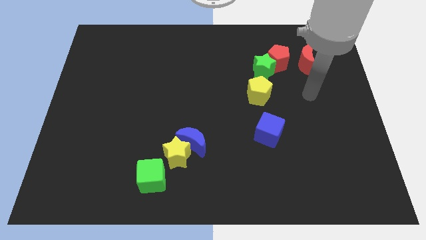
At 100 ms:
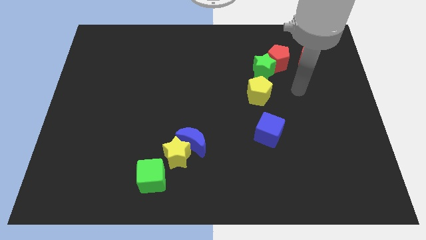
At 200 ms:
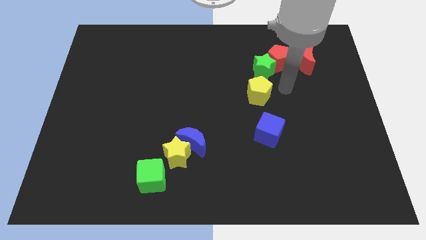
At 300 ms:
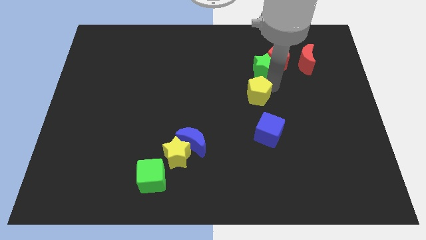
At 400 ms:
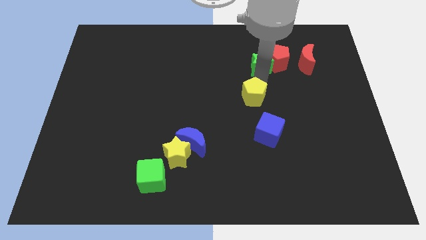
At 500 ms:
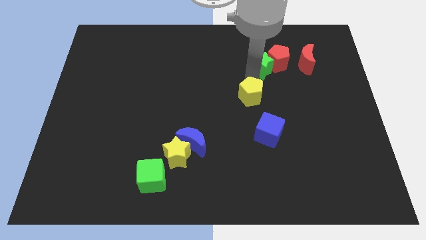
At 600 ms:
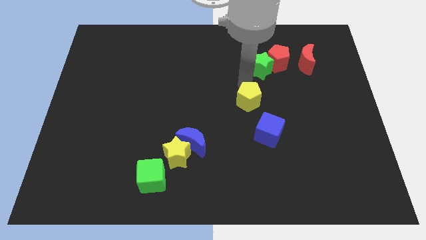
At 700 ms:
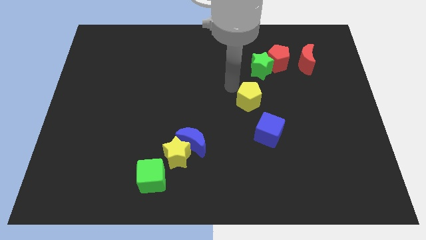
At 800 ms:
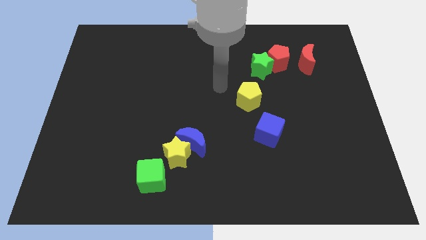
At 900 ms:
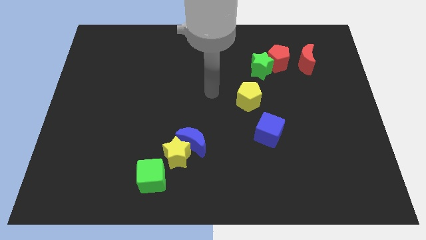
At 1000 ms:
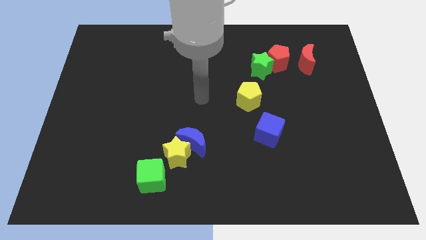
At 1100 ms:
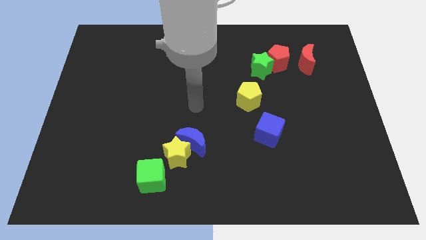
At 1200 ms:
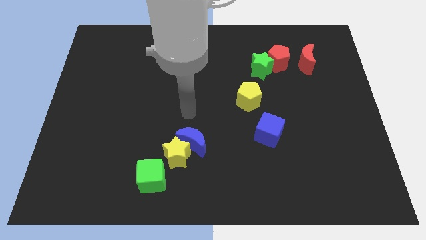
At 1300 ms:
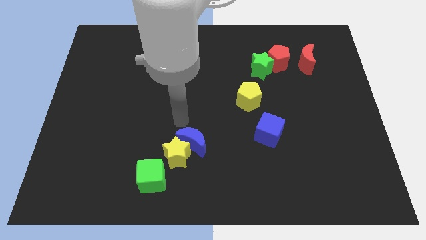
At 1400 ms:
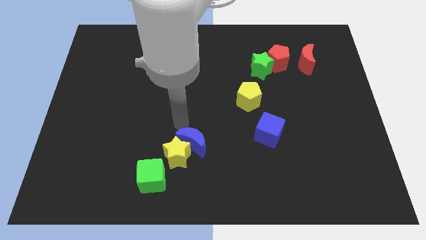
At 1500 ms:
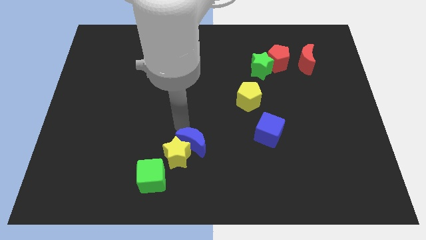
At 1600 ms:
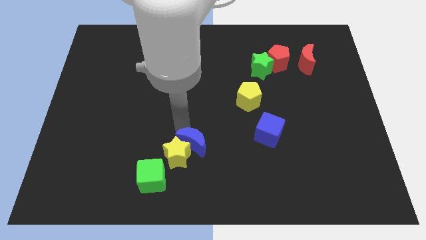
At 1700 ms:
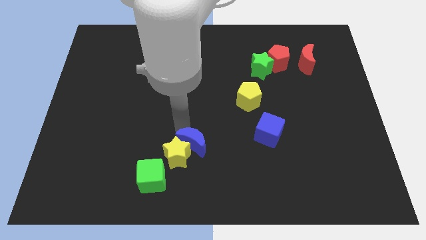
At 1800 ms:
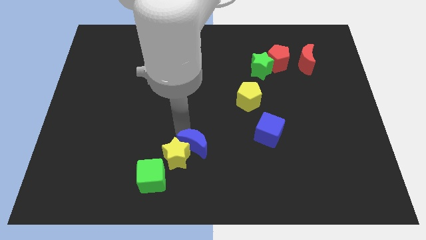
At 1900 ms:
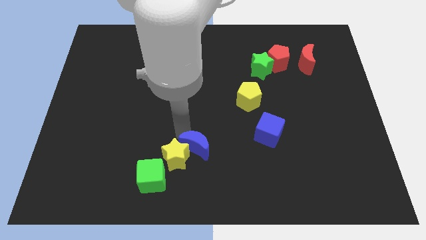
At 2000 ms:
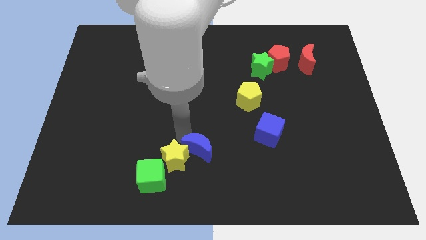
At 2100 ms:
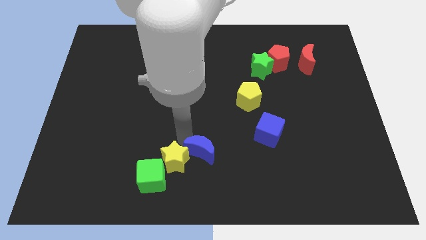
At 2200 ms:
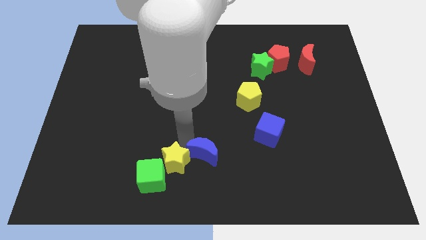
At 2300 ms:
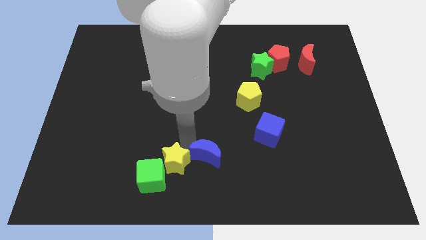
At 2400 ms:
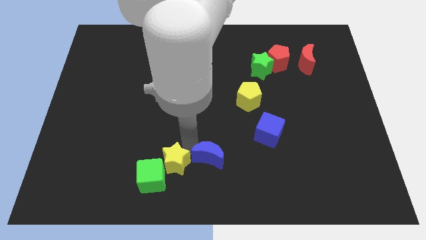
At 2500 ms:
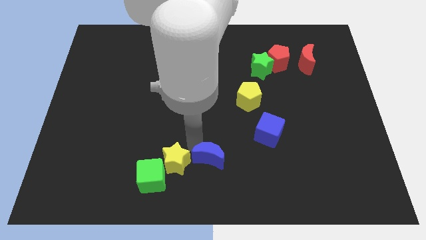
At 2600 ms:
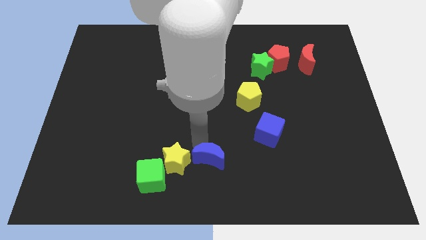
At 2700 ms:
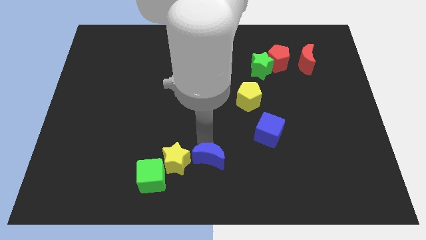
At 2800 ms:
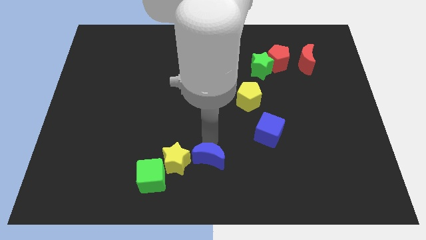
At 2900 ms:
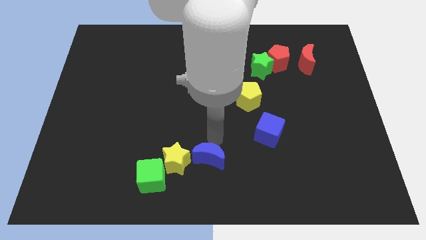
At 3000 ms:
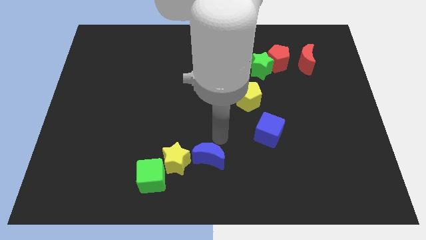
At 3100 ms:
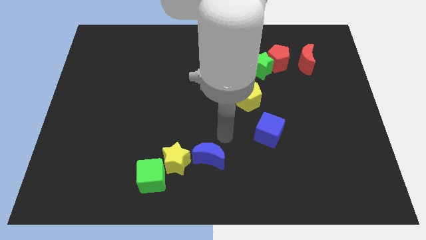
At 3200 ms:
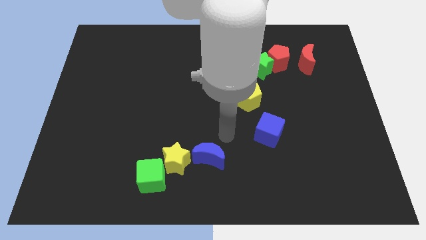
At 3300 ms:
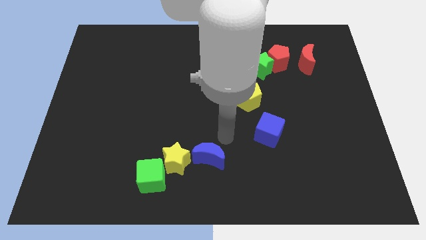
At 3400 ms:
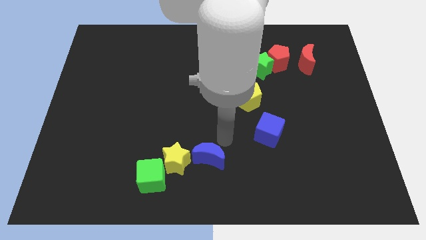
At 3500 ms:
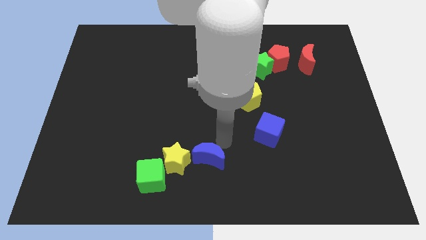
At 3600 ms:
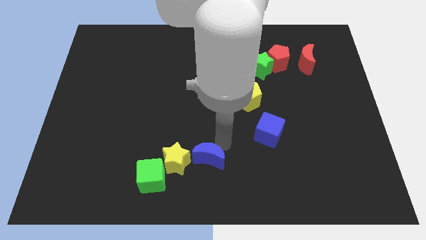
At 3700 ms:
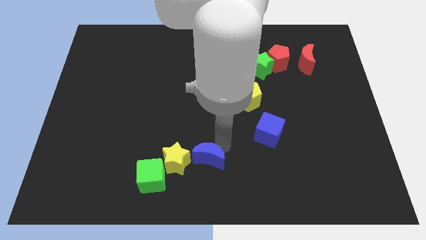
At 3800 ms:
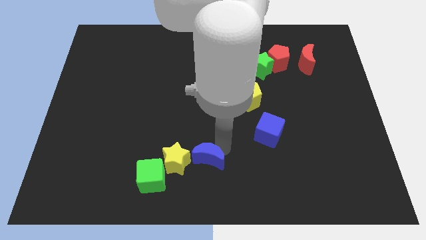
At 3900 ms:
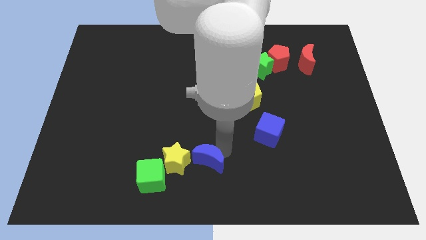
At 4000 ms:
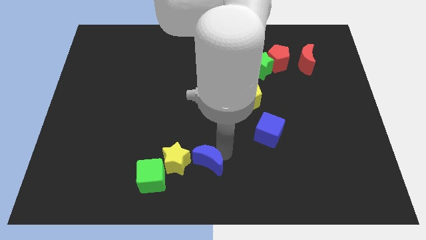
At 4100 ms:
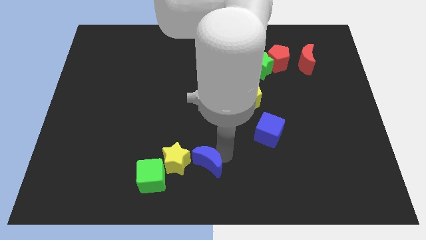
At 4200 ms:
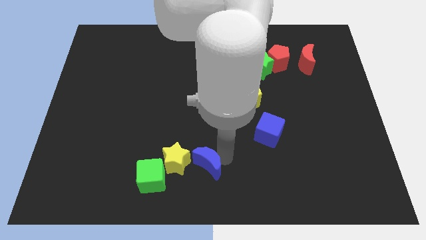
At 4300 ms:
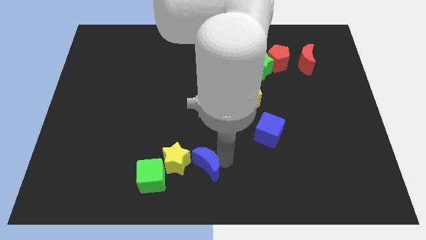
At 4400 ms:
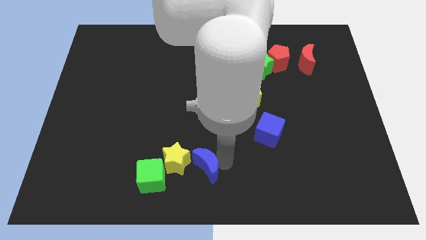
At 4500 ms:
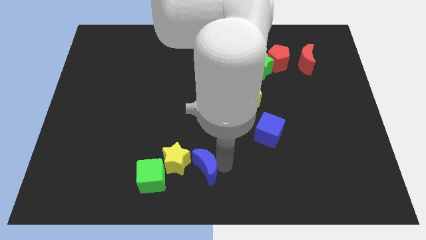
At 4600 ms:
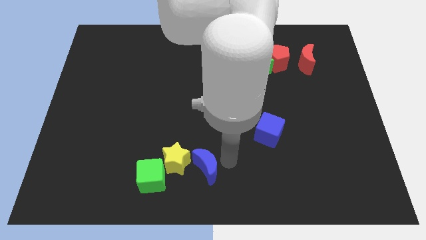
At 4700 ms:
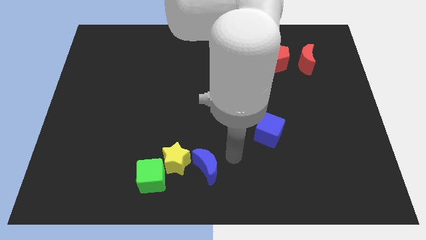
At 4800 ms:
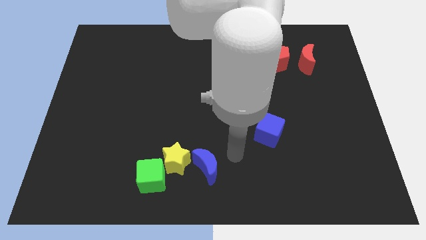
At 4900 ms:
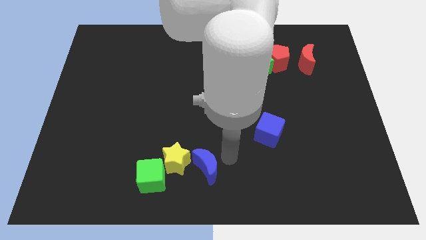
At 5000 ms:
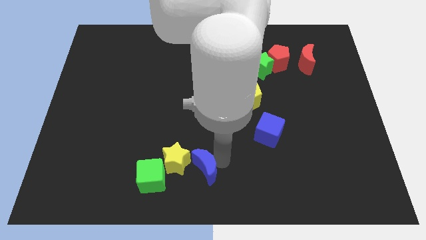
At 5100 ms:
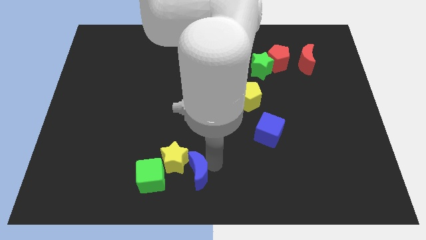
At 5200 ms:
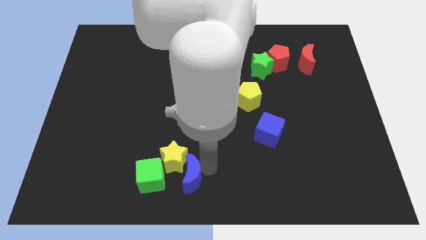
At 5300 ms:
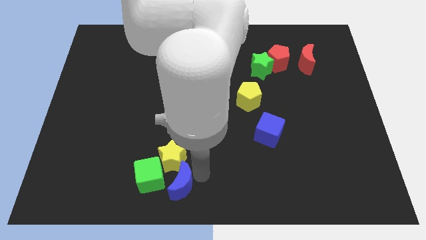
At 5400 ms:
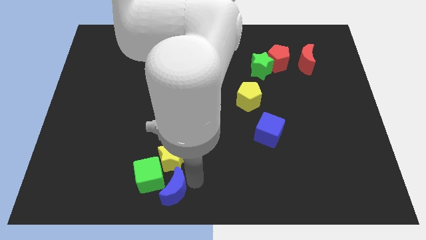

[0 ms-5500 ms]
slide the blue moon to the green cube

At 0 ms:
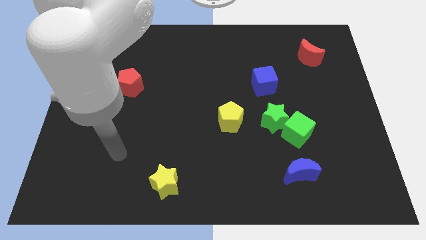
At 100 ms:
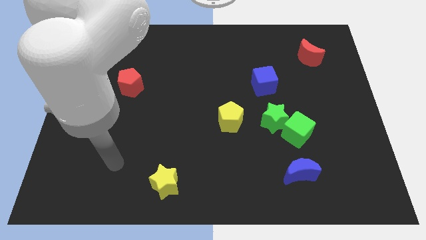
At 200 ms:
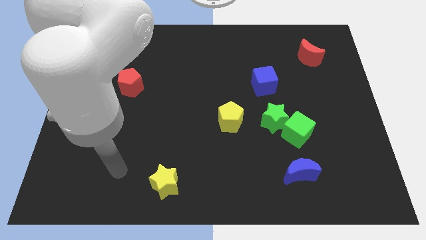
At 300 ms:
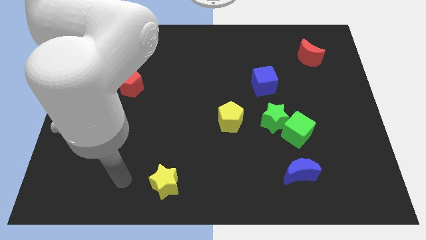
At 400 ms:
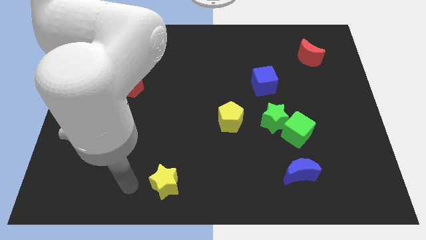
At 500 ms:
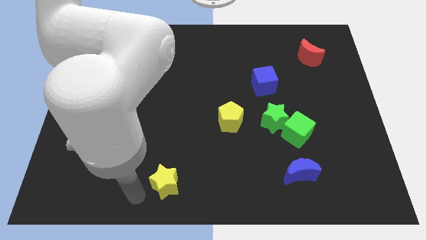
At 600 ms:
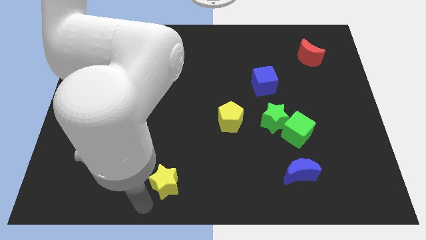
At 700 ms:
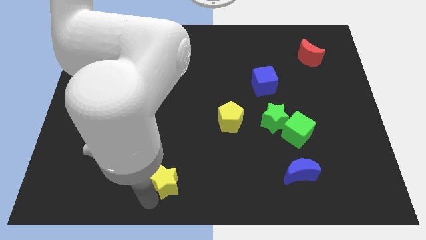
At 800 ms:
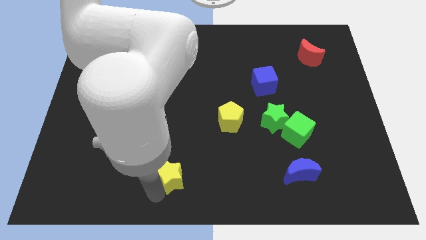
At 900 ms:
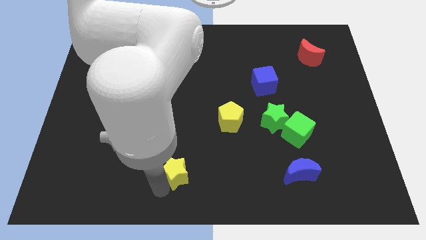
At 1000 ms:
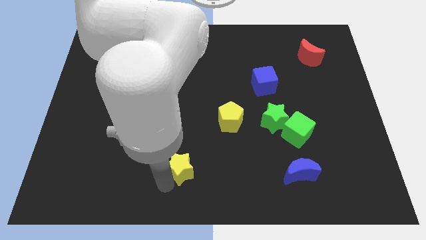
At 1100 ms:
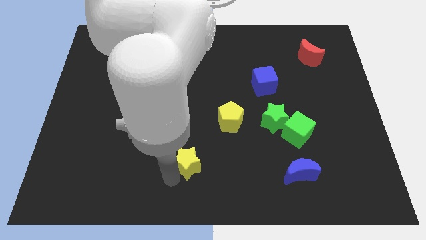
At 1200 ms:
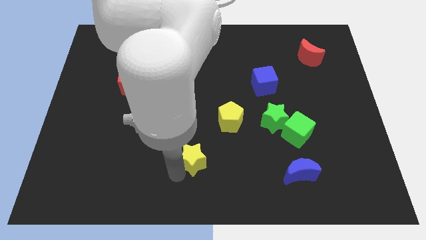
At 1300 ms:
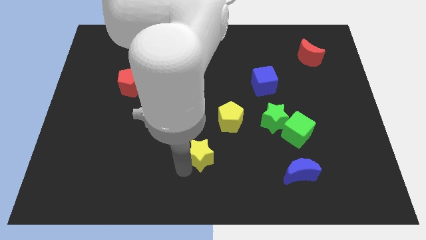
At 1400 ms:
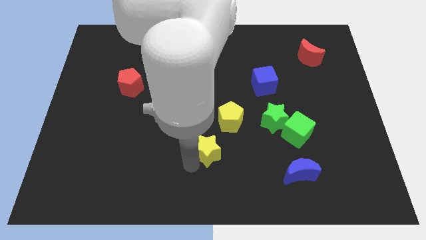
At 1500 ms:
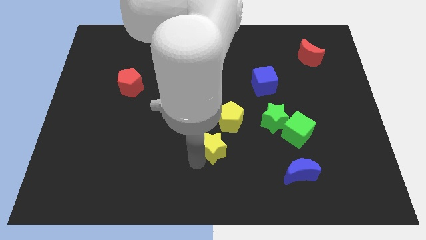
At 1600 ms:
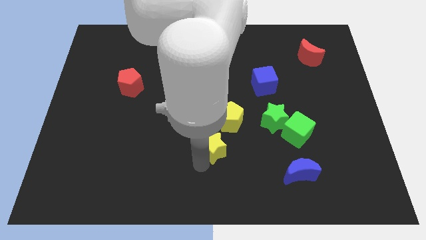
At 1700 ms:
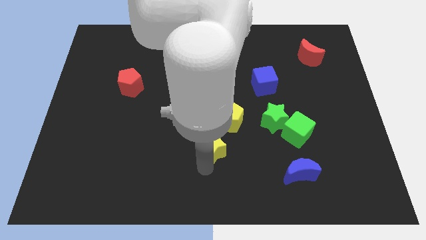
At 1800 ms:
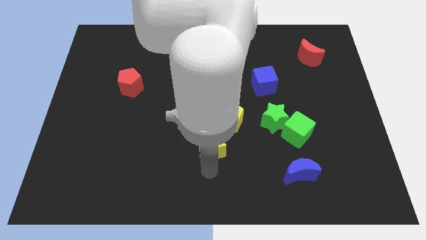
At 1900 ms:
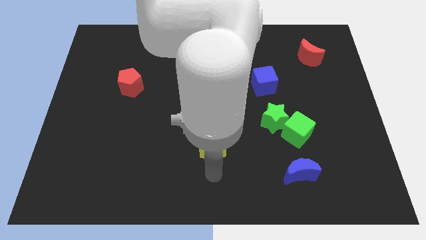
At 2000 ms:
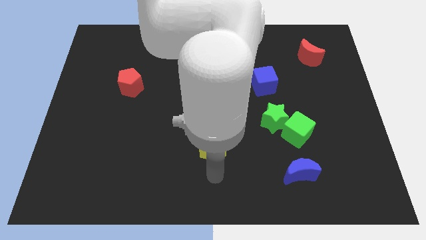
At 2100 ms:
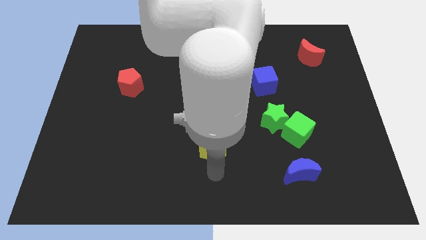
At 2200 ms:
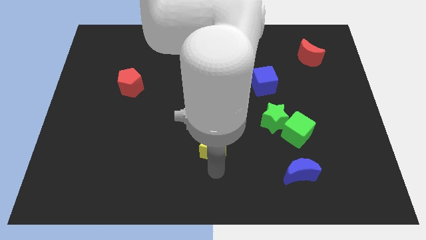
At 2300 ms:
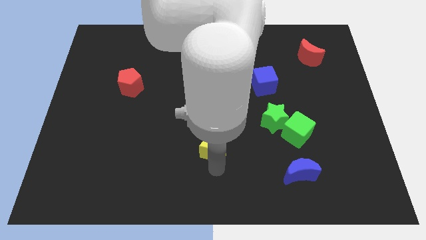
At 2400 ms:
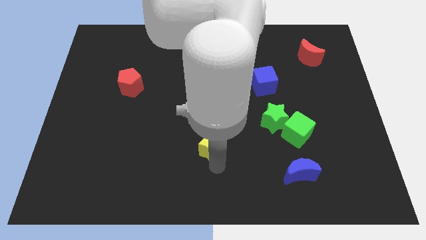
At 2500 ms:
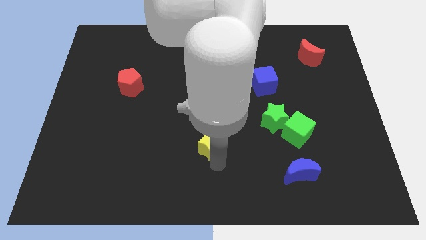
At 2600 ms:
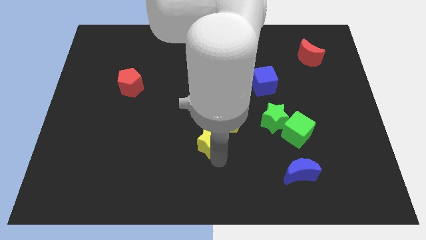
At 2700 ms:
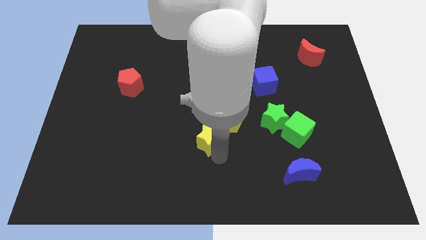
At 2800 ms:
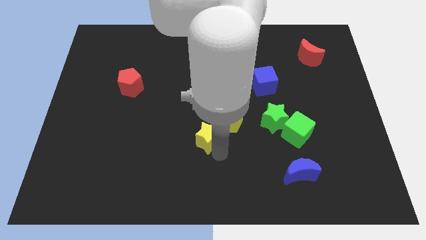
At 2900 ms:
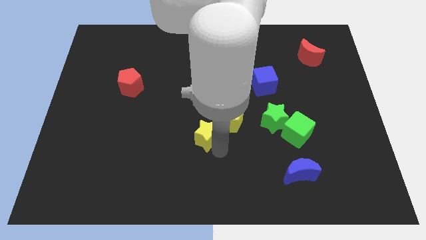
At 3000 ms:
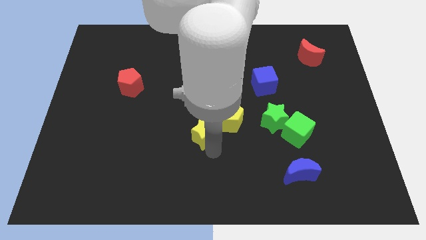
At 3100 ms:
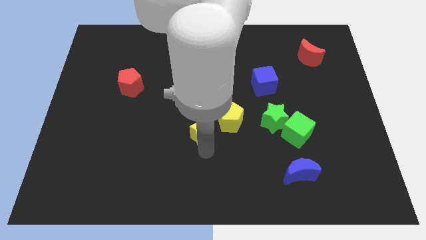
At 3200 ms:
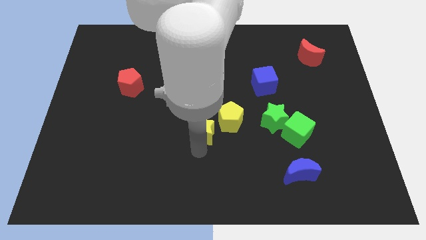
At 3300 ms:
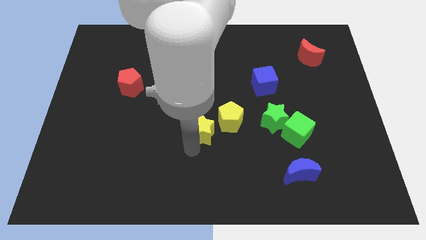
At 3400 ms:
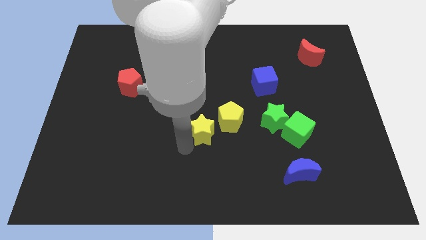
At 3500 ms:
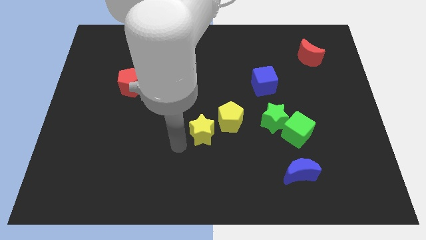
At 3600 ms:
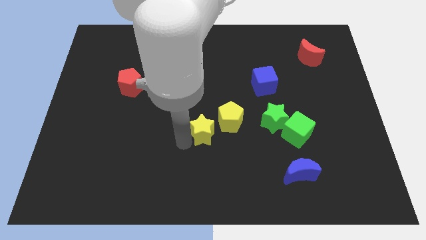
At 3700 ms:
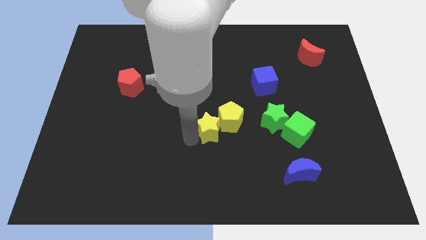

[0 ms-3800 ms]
slide the yellow star towards the yellow pentagon
